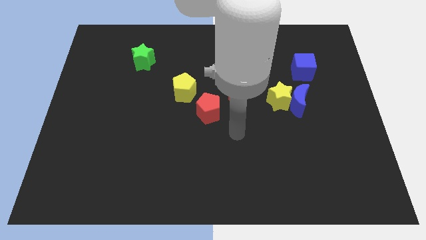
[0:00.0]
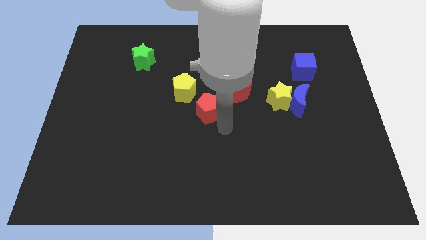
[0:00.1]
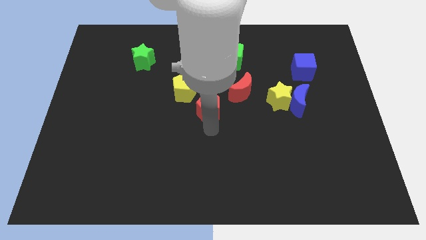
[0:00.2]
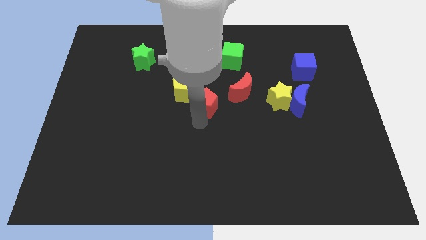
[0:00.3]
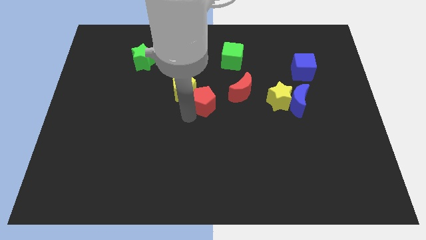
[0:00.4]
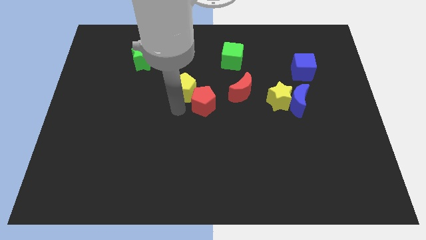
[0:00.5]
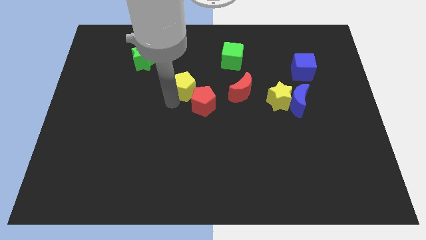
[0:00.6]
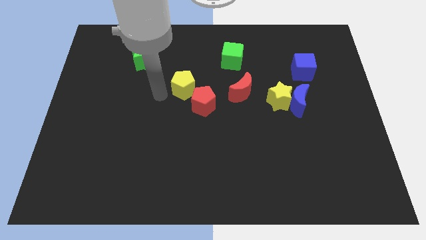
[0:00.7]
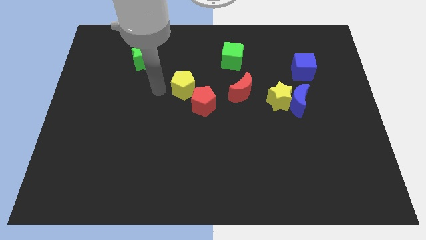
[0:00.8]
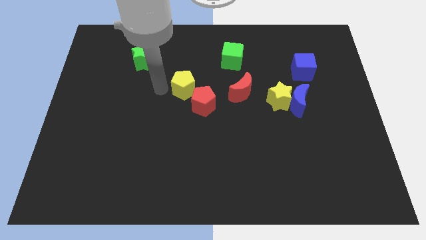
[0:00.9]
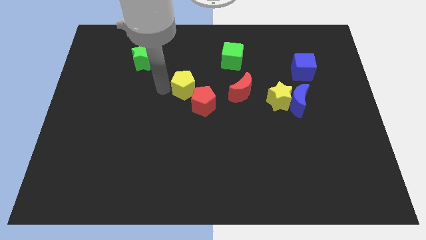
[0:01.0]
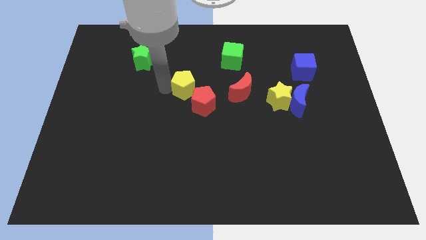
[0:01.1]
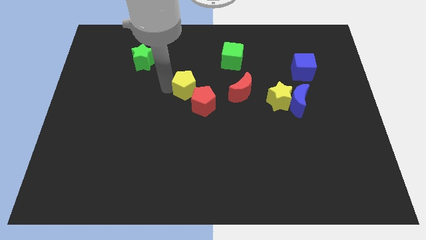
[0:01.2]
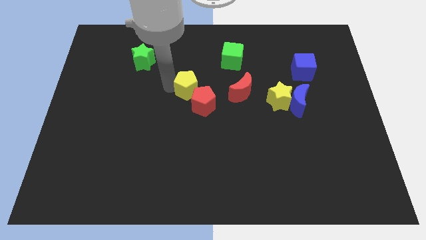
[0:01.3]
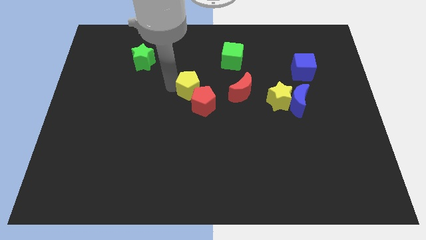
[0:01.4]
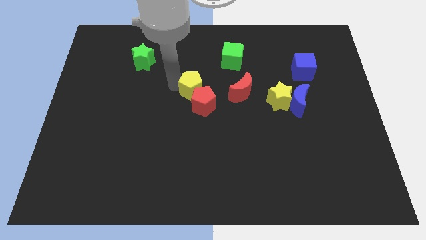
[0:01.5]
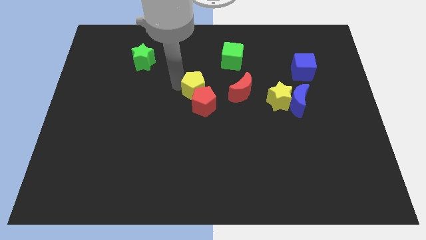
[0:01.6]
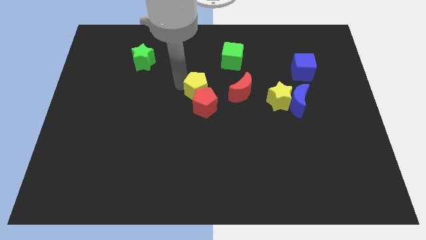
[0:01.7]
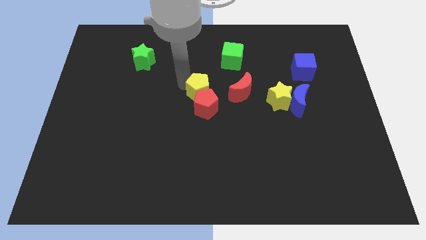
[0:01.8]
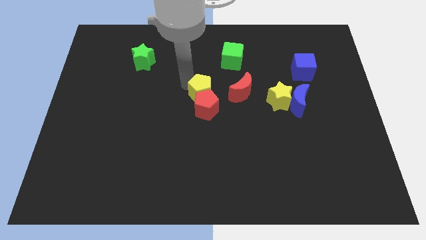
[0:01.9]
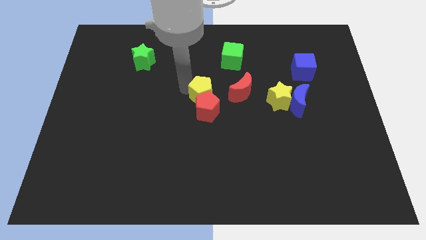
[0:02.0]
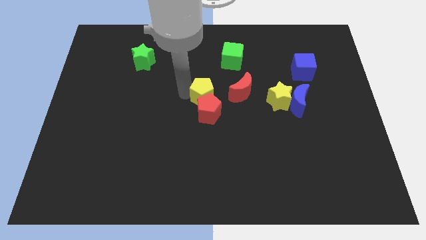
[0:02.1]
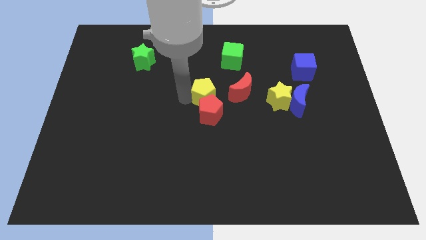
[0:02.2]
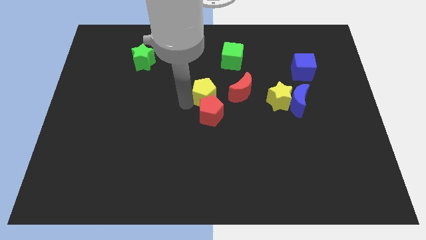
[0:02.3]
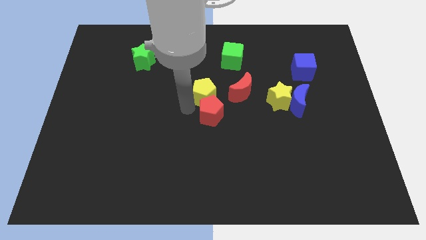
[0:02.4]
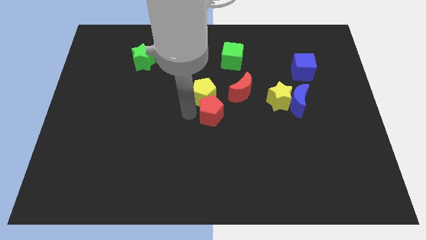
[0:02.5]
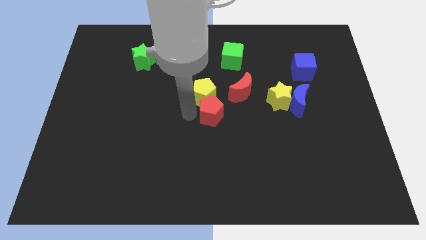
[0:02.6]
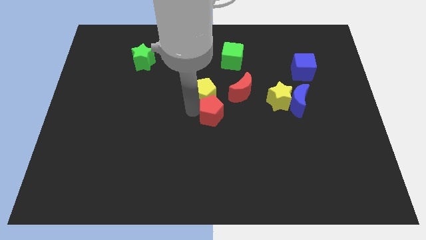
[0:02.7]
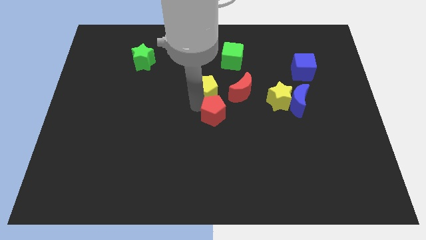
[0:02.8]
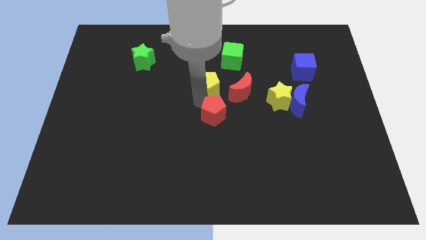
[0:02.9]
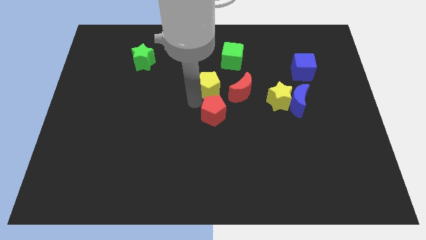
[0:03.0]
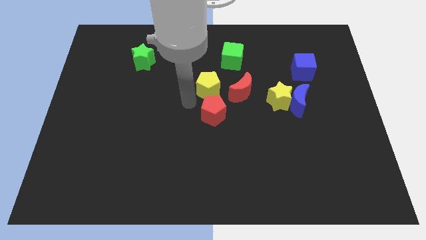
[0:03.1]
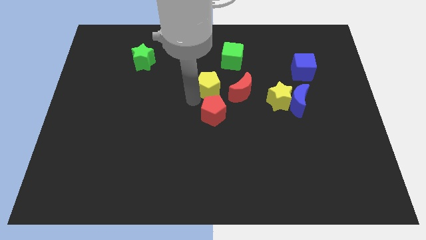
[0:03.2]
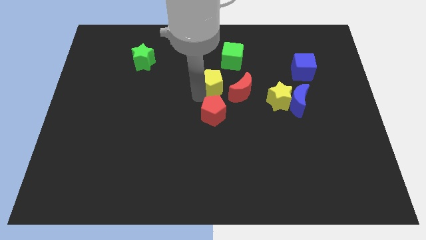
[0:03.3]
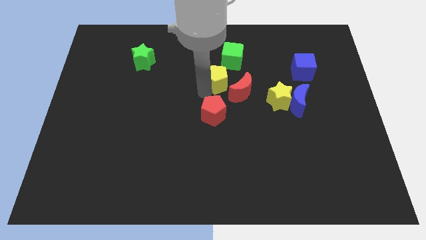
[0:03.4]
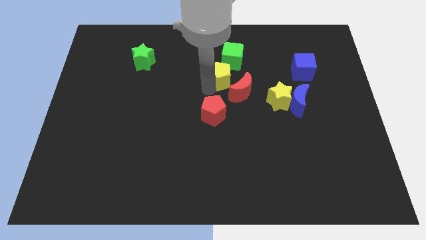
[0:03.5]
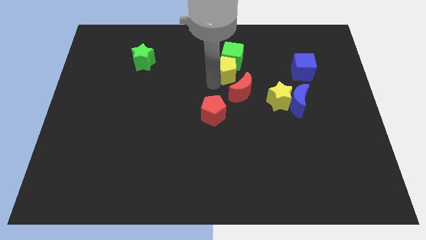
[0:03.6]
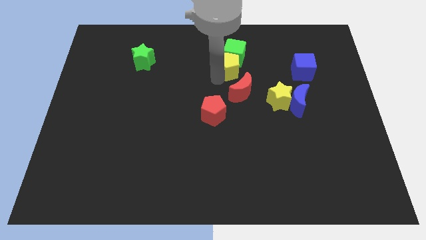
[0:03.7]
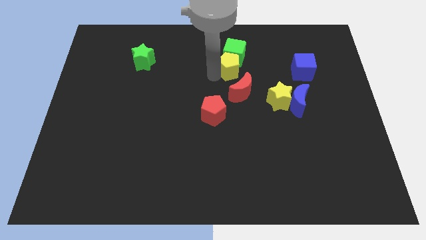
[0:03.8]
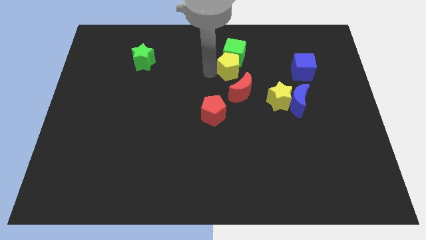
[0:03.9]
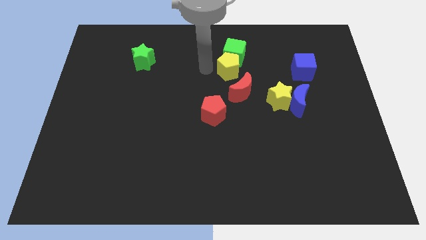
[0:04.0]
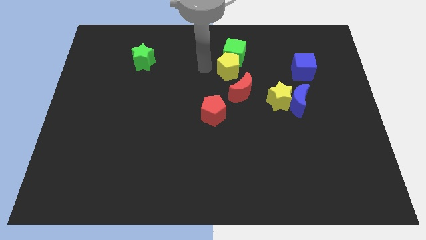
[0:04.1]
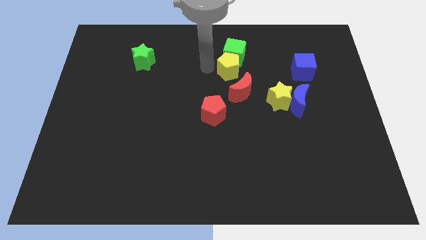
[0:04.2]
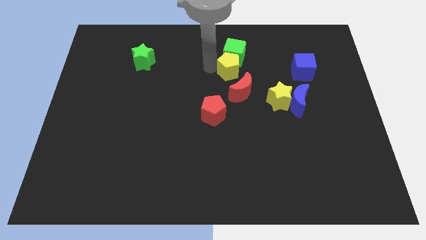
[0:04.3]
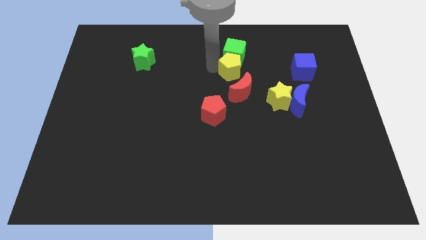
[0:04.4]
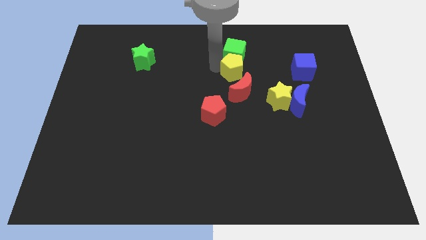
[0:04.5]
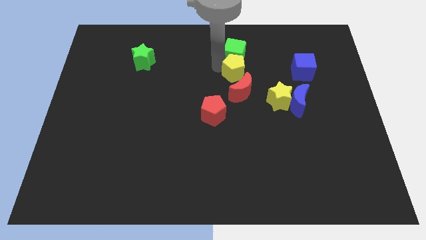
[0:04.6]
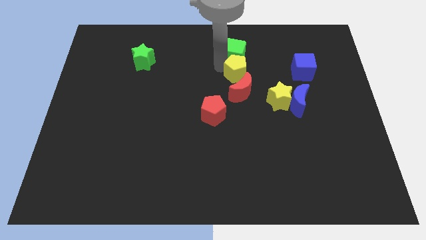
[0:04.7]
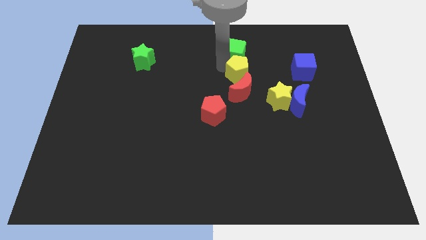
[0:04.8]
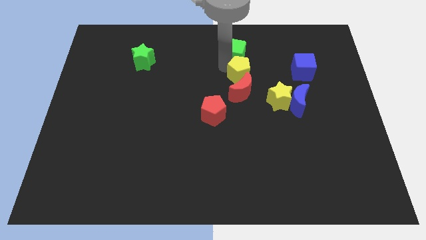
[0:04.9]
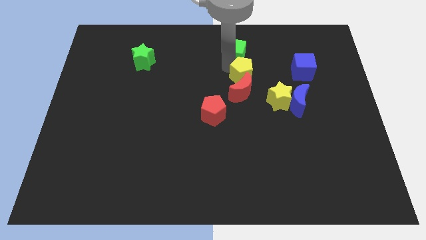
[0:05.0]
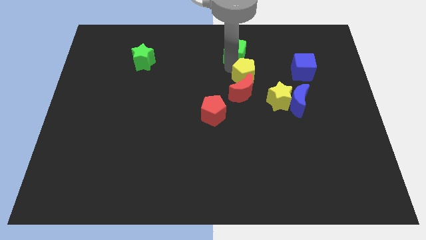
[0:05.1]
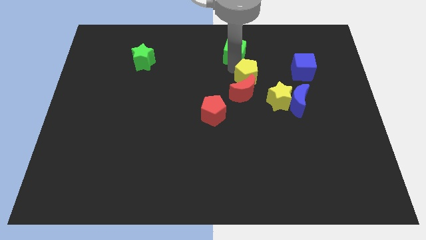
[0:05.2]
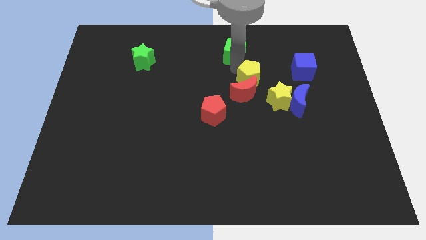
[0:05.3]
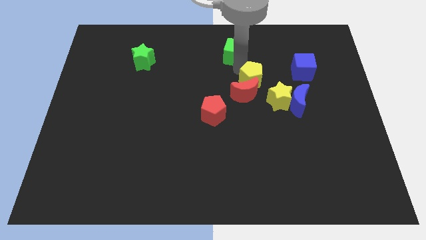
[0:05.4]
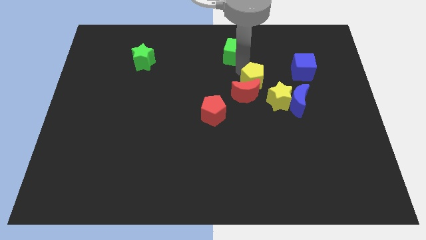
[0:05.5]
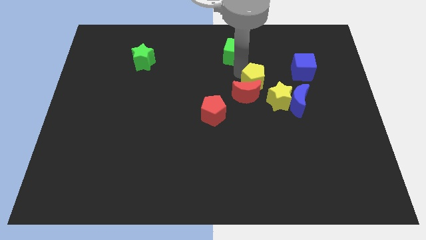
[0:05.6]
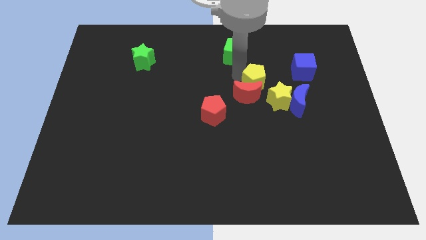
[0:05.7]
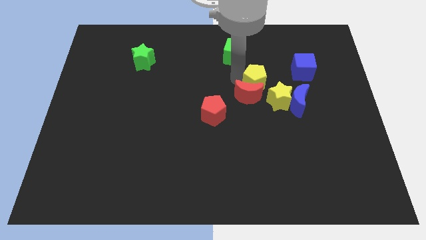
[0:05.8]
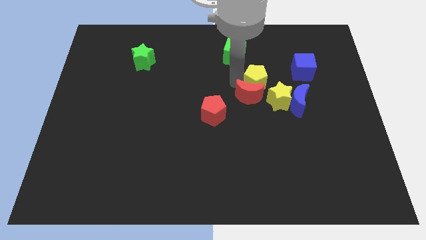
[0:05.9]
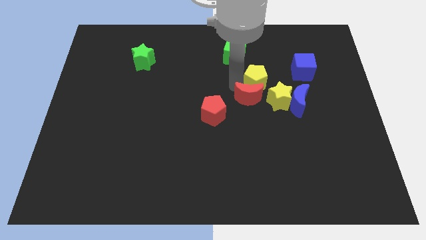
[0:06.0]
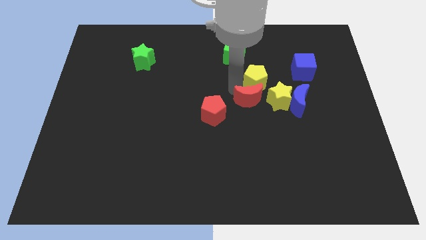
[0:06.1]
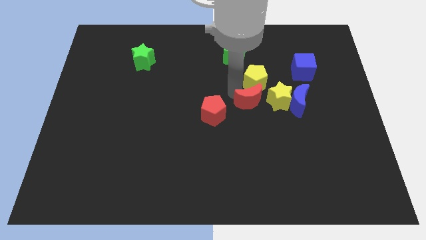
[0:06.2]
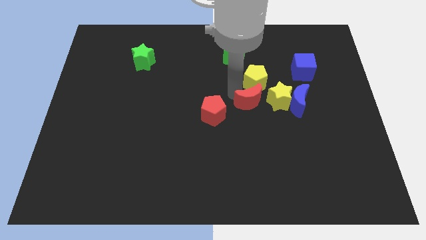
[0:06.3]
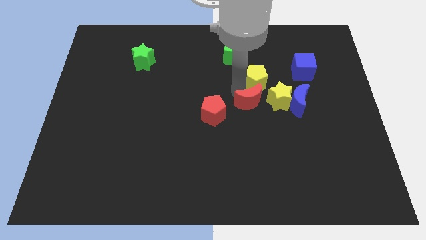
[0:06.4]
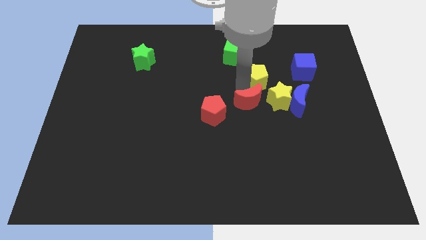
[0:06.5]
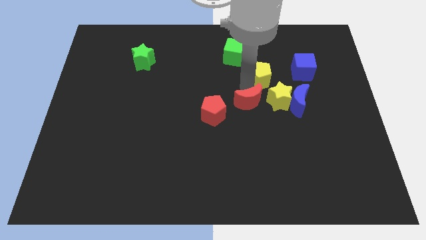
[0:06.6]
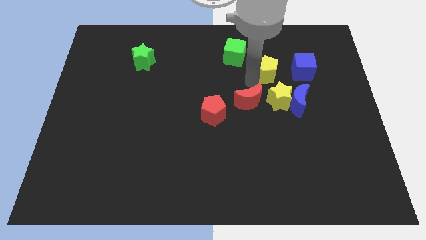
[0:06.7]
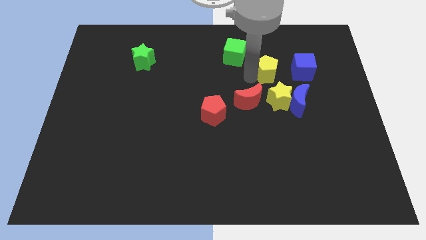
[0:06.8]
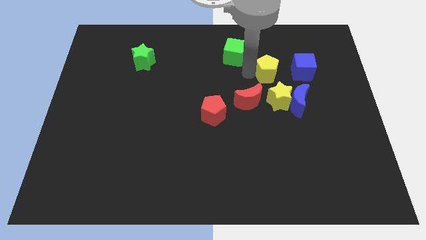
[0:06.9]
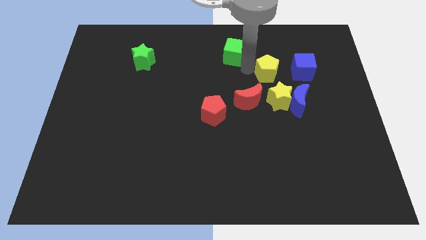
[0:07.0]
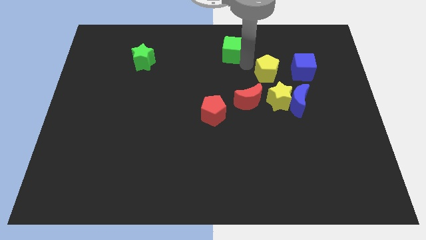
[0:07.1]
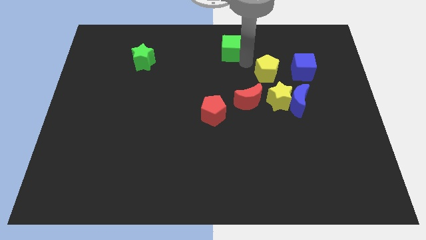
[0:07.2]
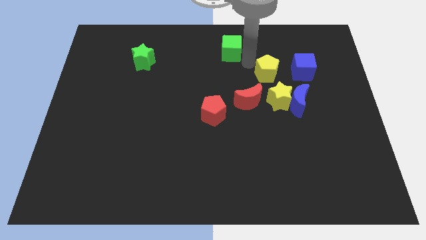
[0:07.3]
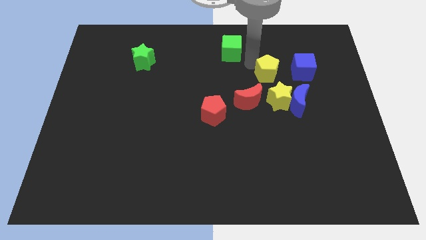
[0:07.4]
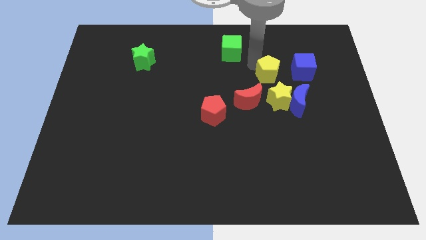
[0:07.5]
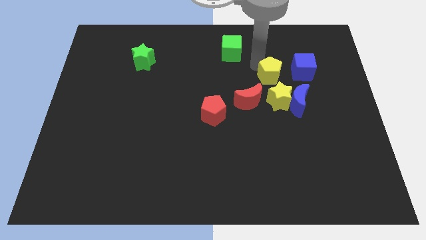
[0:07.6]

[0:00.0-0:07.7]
push the yellow pentagon right
